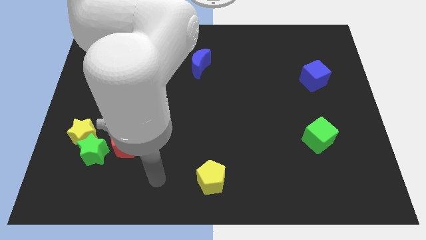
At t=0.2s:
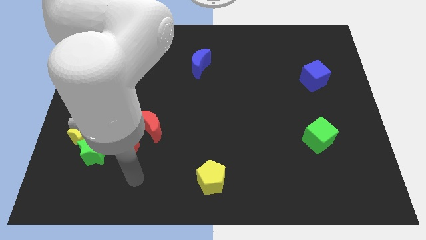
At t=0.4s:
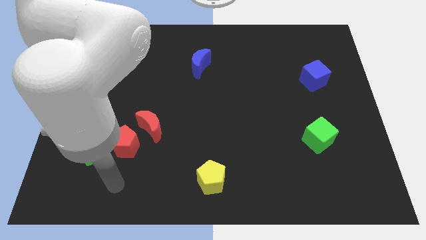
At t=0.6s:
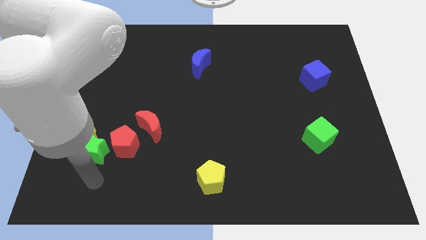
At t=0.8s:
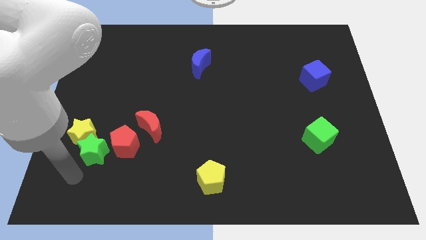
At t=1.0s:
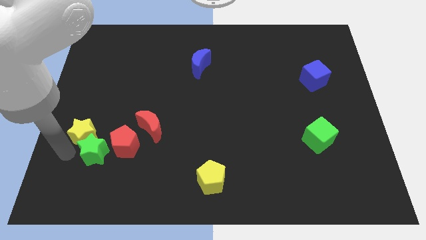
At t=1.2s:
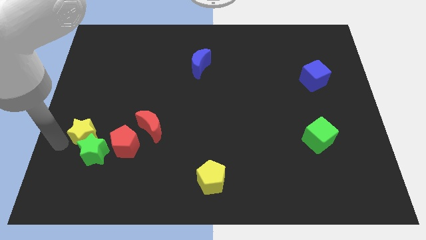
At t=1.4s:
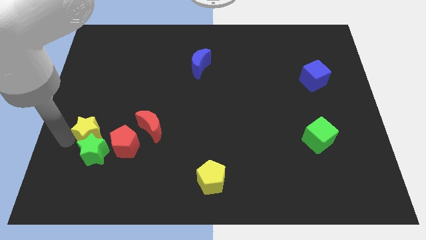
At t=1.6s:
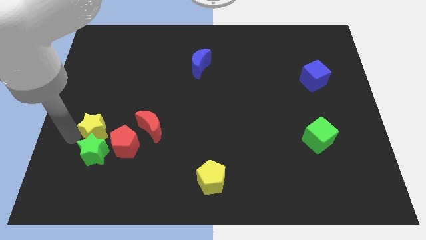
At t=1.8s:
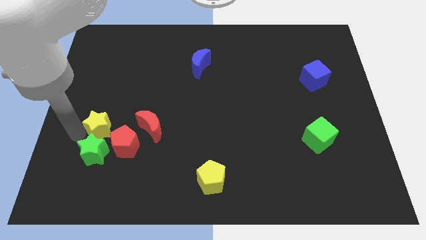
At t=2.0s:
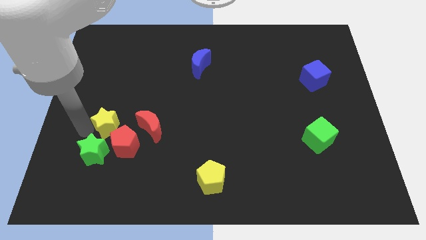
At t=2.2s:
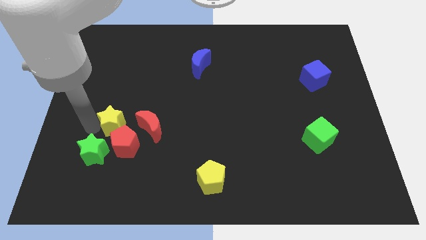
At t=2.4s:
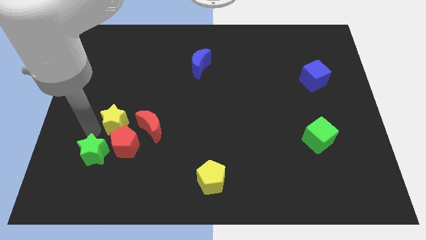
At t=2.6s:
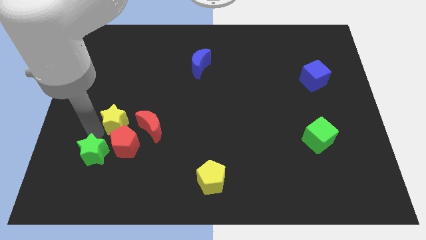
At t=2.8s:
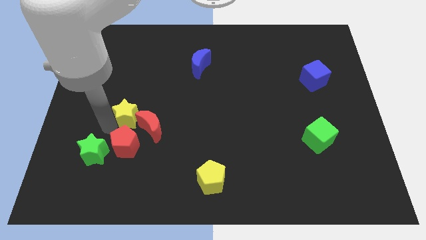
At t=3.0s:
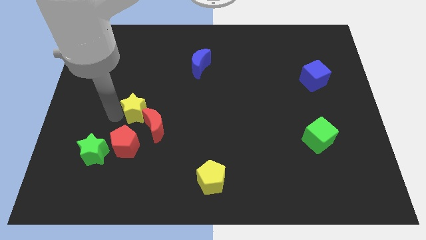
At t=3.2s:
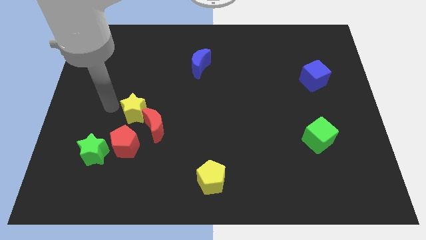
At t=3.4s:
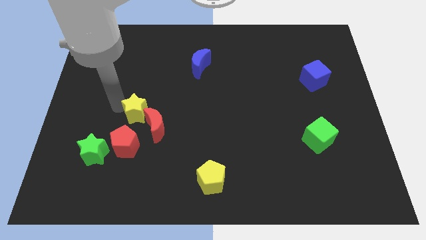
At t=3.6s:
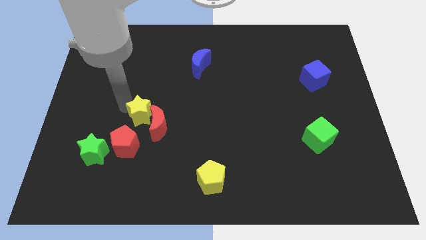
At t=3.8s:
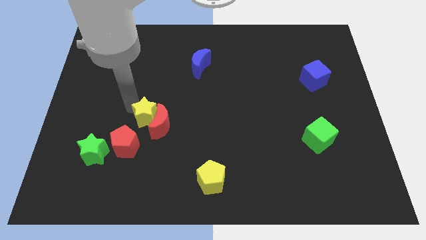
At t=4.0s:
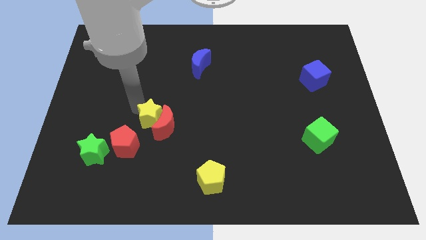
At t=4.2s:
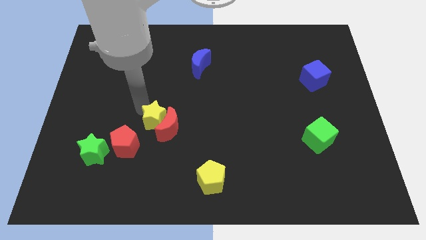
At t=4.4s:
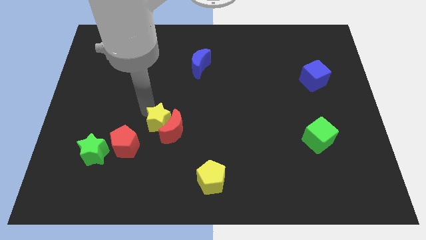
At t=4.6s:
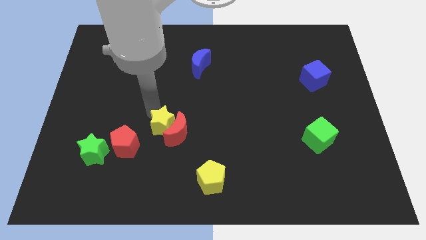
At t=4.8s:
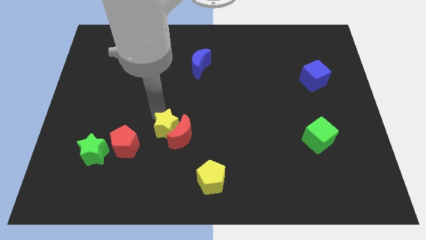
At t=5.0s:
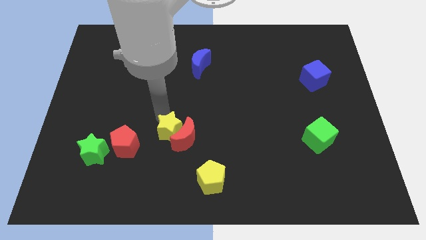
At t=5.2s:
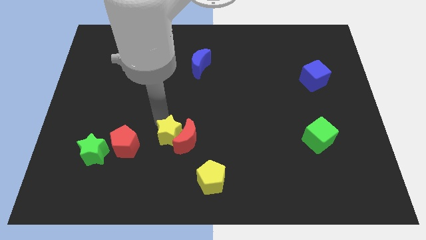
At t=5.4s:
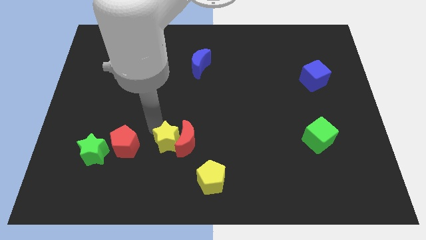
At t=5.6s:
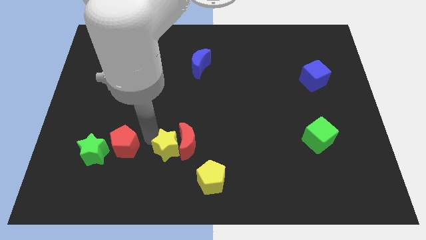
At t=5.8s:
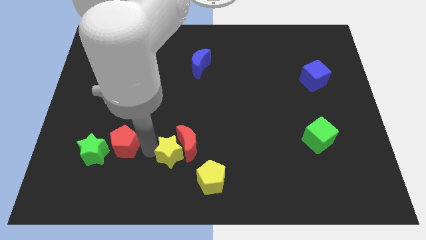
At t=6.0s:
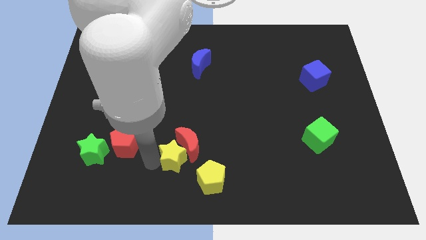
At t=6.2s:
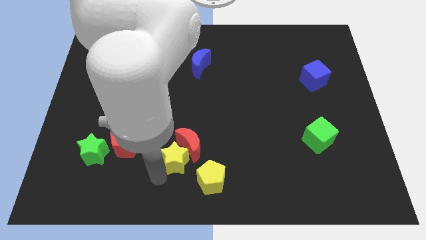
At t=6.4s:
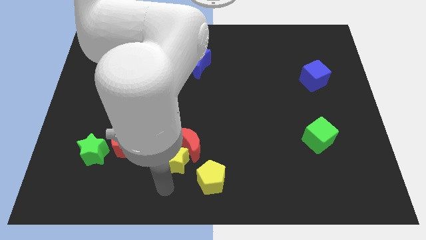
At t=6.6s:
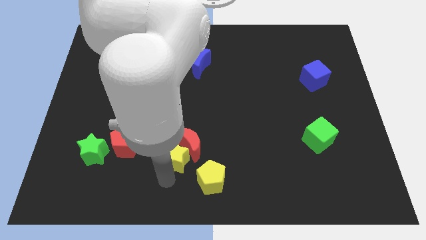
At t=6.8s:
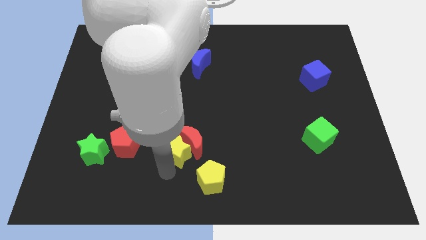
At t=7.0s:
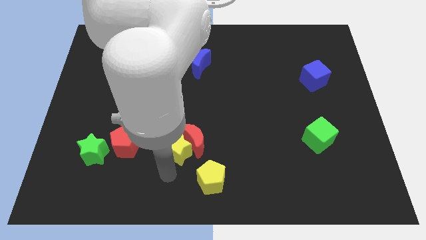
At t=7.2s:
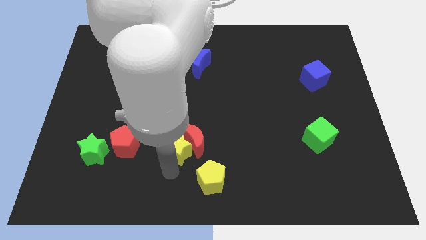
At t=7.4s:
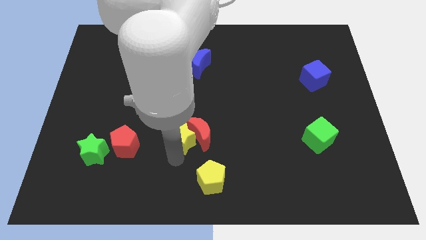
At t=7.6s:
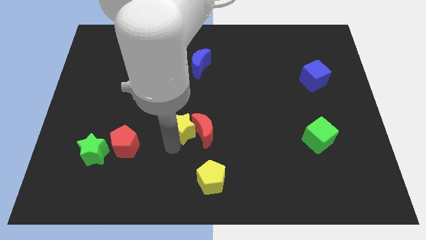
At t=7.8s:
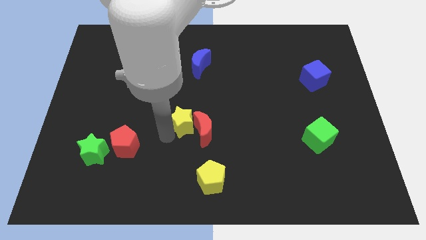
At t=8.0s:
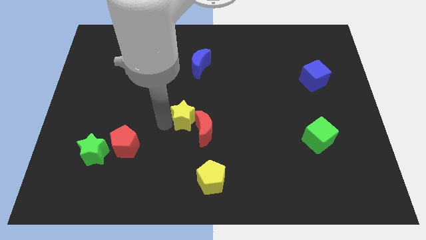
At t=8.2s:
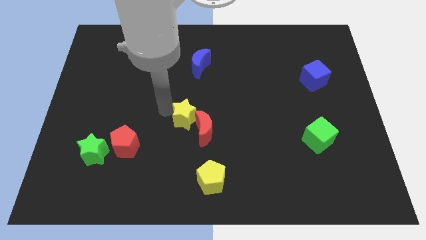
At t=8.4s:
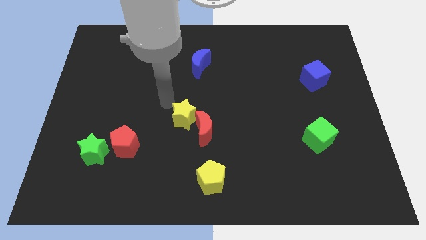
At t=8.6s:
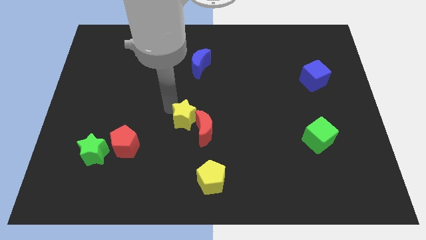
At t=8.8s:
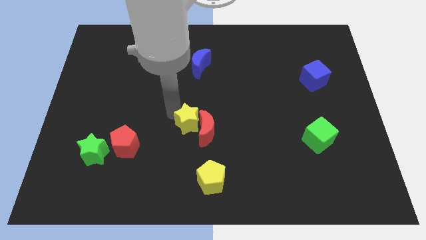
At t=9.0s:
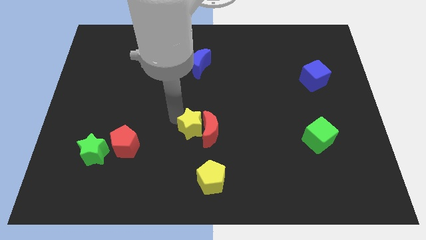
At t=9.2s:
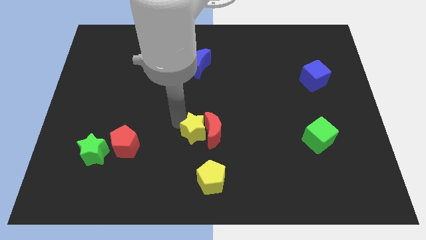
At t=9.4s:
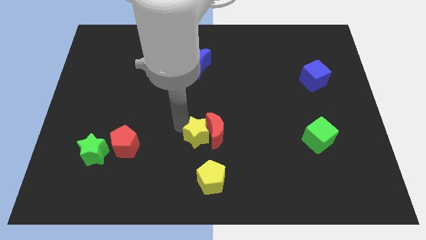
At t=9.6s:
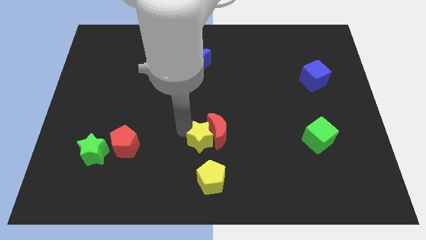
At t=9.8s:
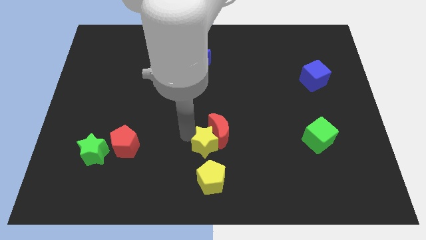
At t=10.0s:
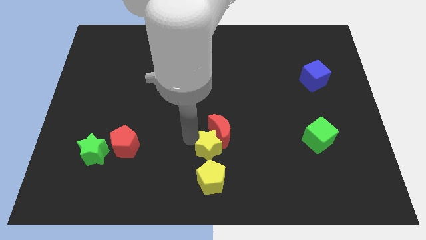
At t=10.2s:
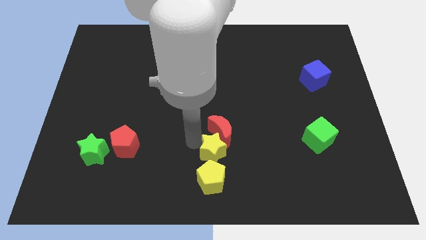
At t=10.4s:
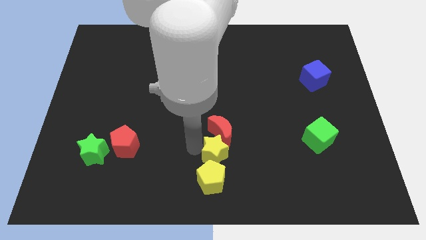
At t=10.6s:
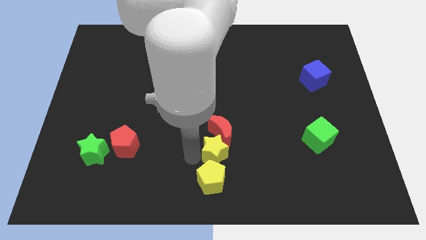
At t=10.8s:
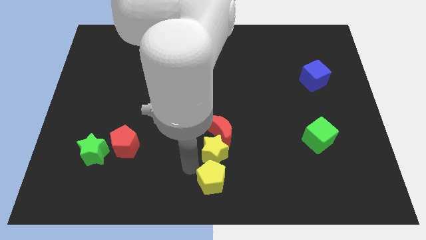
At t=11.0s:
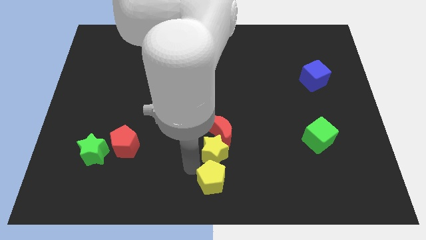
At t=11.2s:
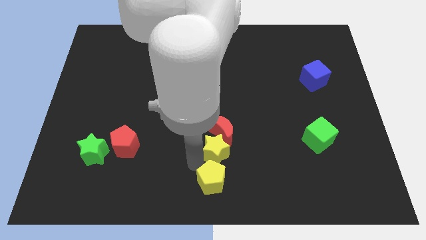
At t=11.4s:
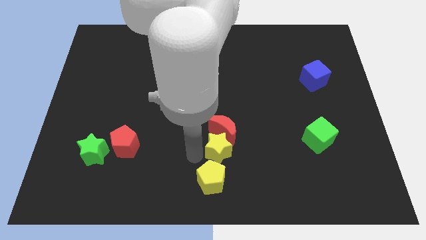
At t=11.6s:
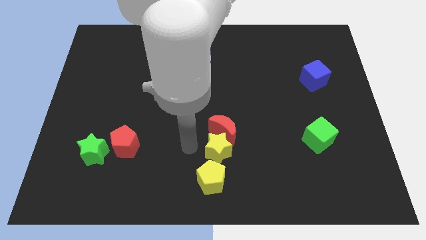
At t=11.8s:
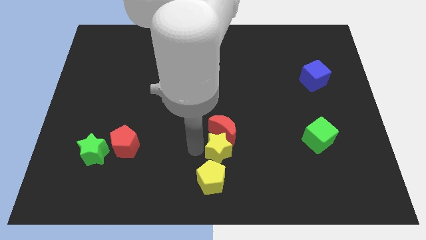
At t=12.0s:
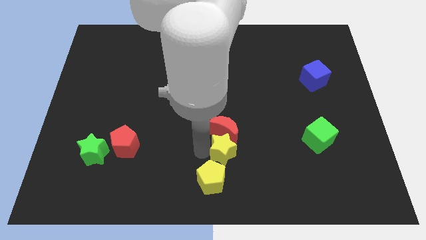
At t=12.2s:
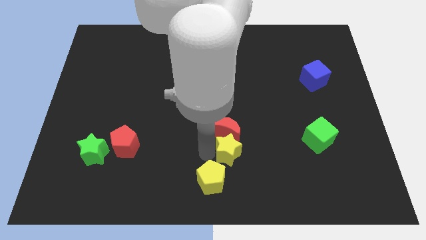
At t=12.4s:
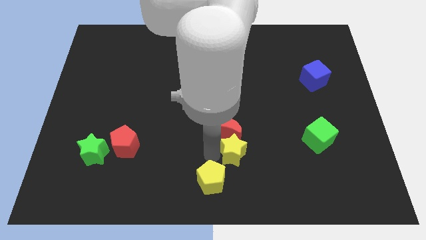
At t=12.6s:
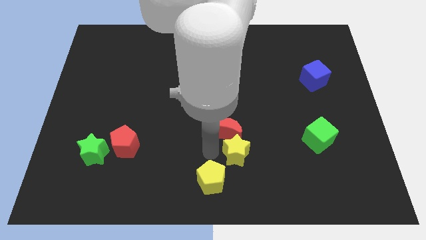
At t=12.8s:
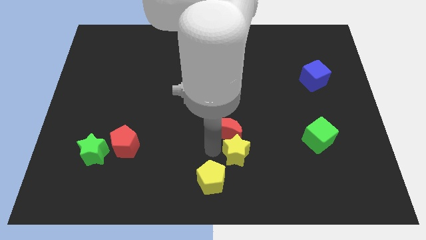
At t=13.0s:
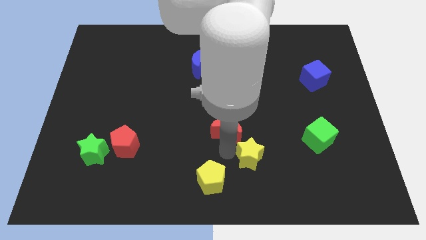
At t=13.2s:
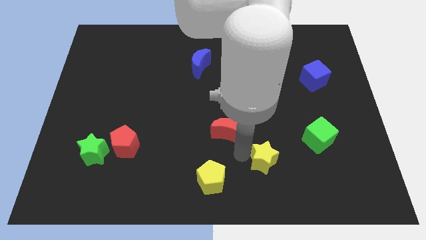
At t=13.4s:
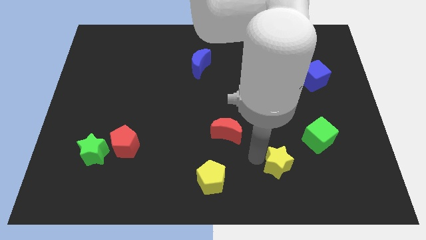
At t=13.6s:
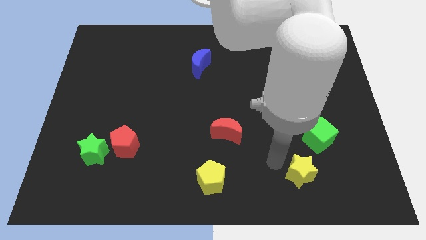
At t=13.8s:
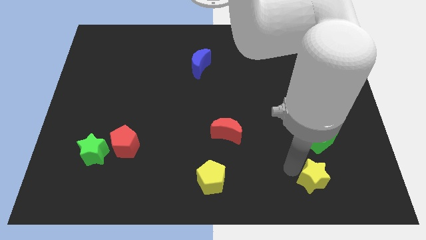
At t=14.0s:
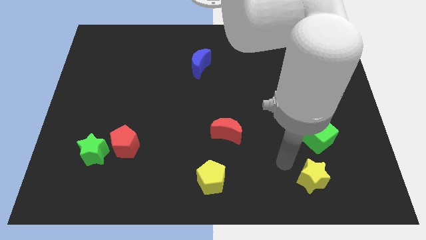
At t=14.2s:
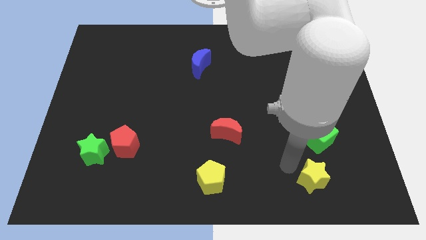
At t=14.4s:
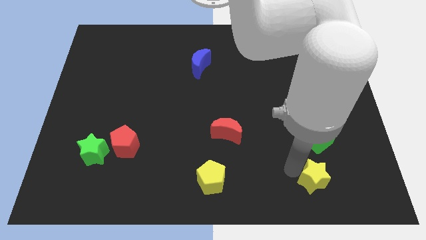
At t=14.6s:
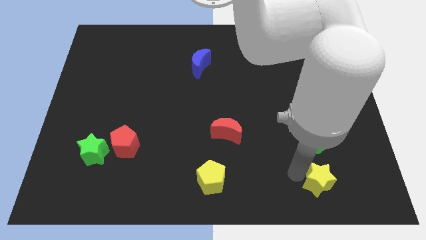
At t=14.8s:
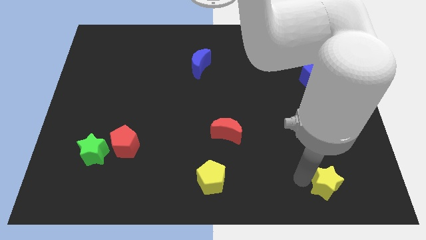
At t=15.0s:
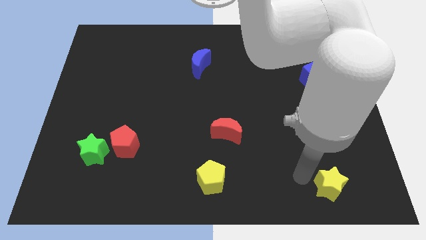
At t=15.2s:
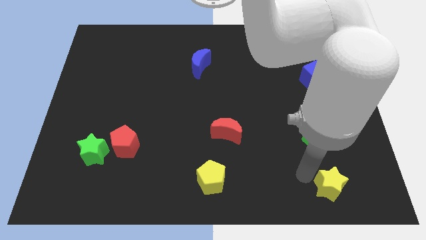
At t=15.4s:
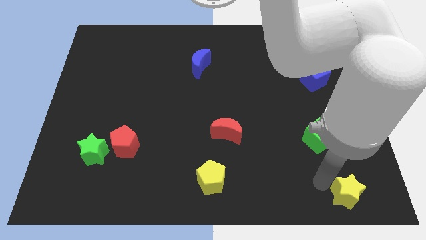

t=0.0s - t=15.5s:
put the yellow star to the bottom right of the board
